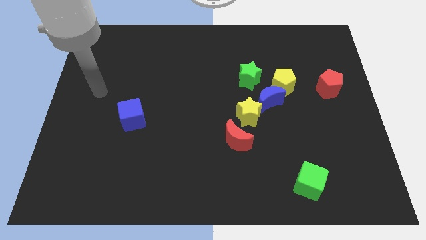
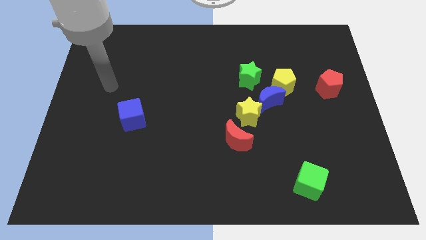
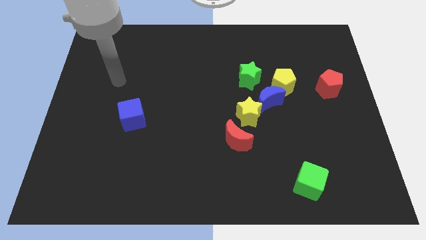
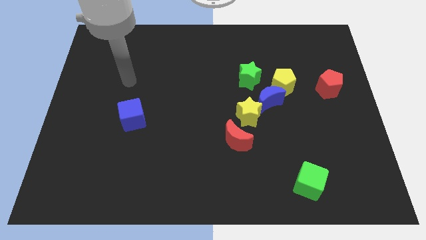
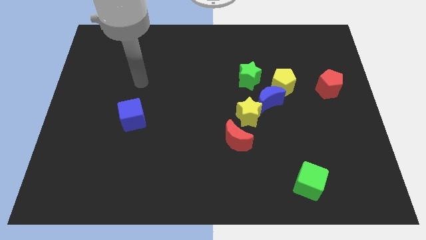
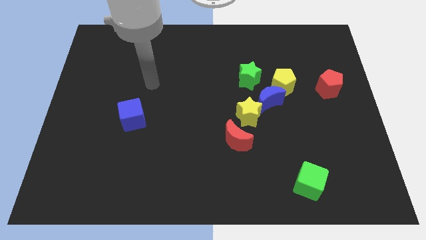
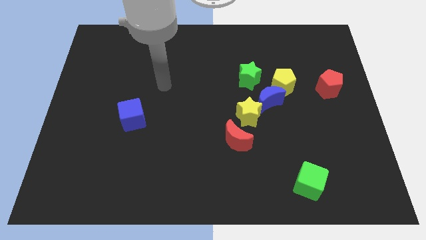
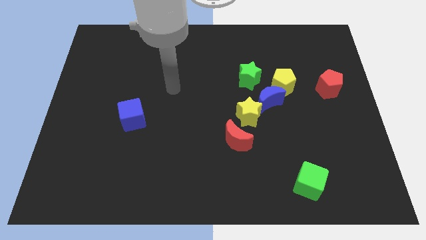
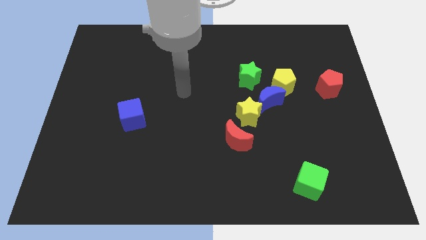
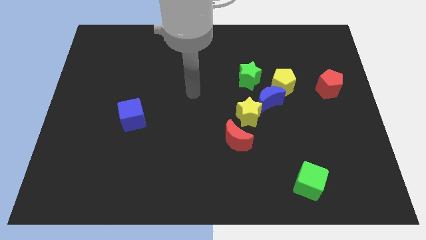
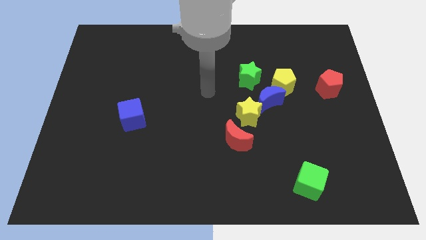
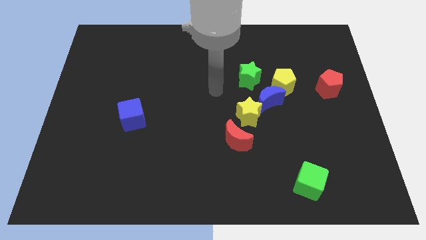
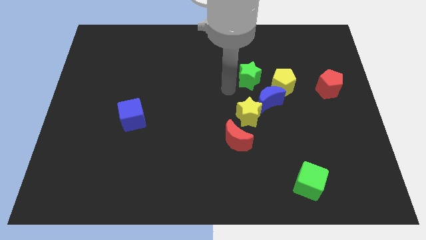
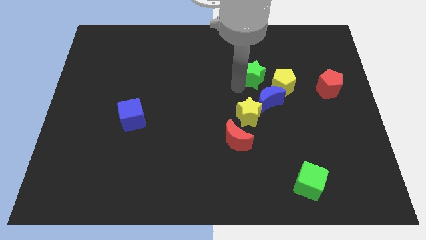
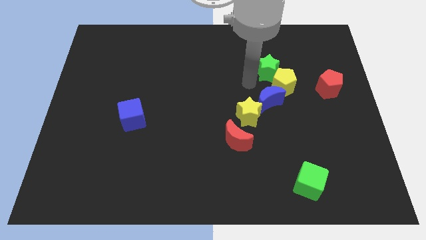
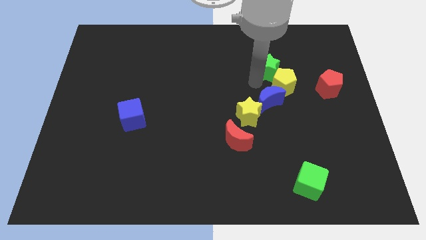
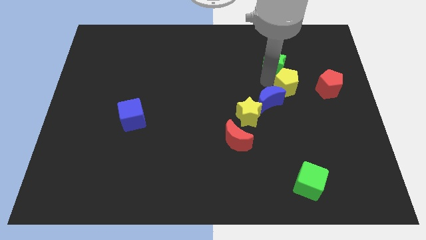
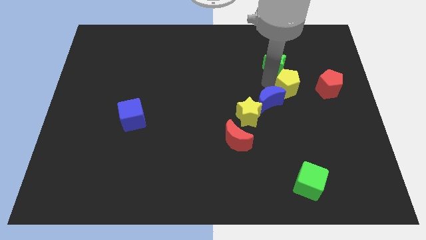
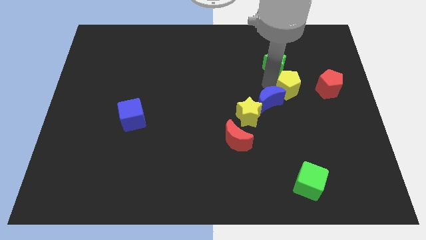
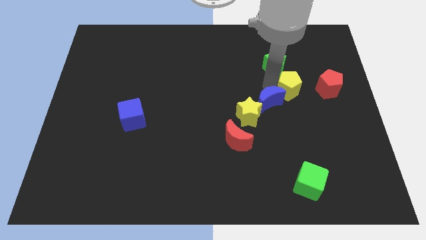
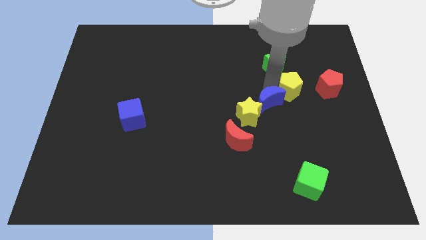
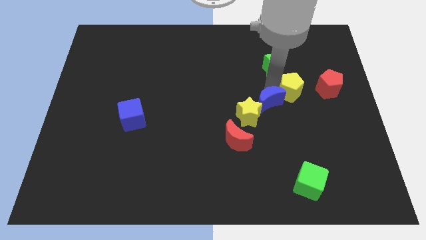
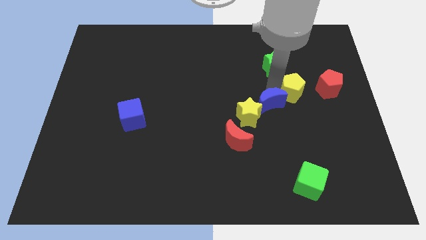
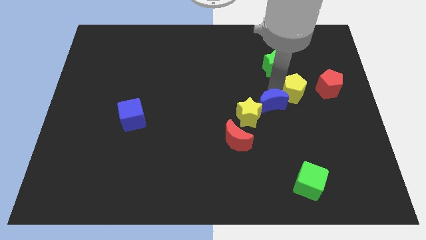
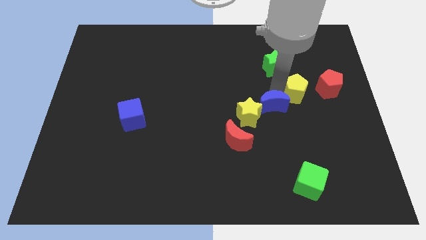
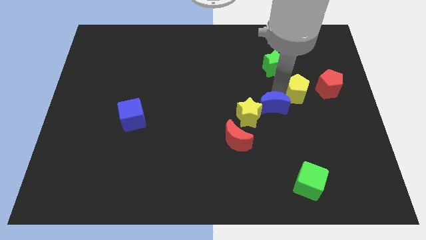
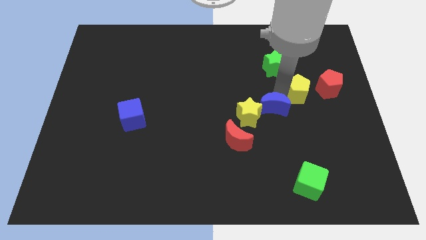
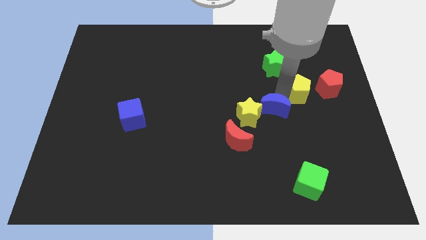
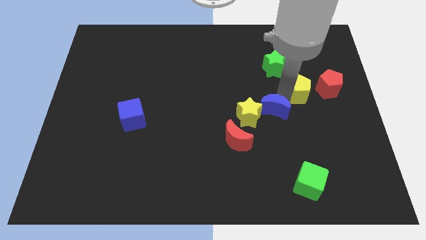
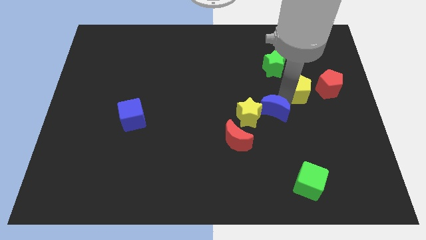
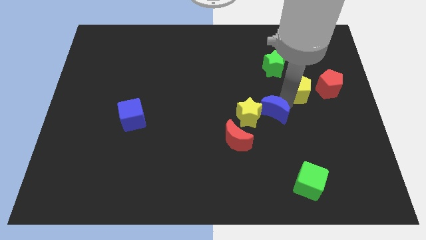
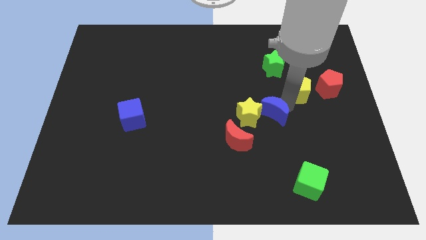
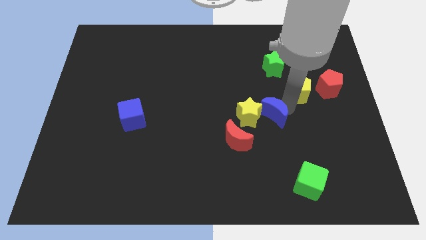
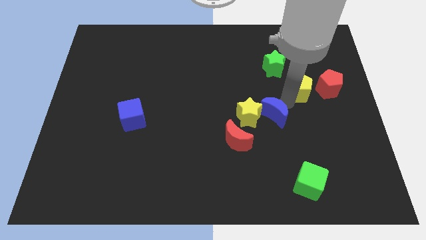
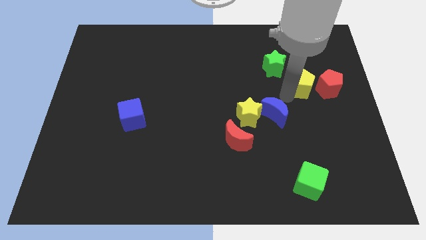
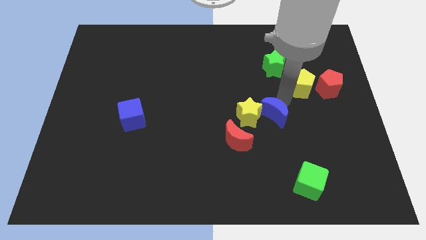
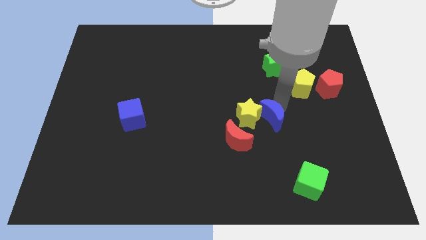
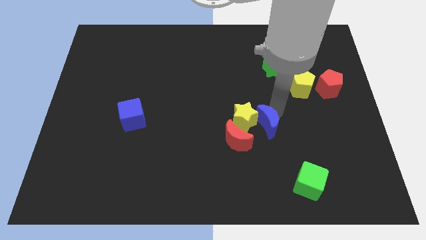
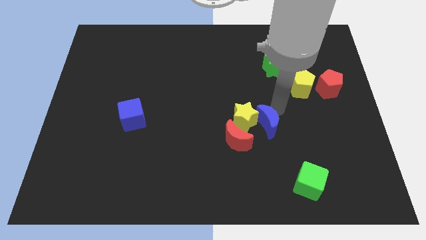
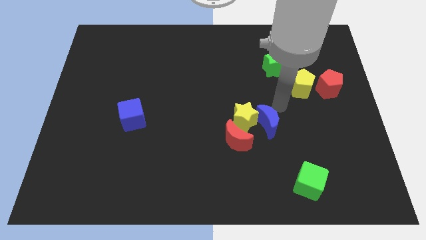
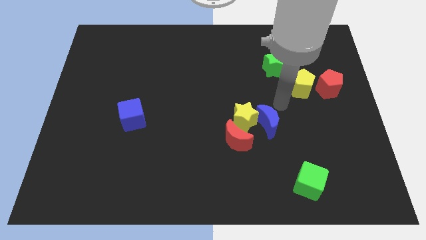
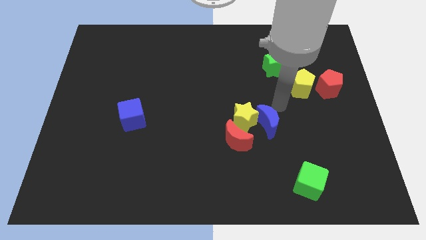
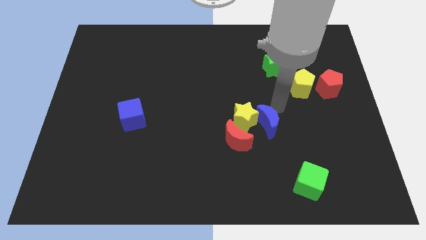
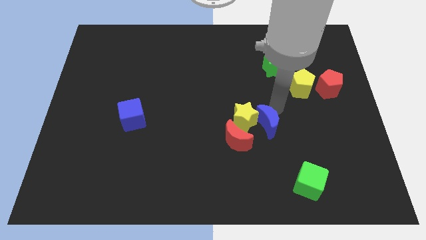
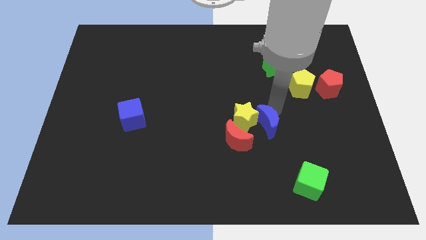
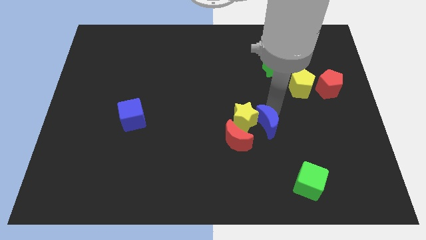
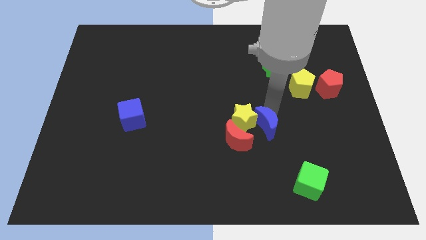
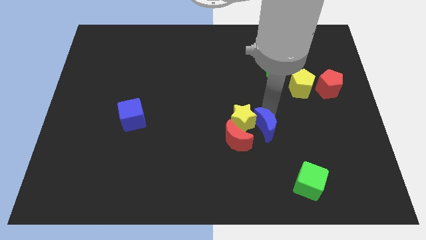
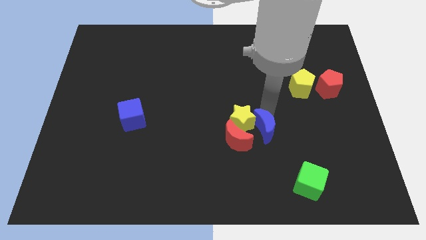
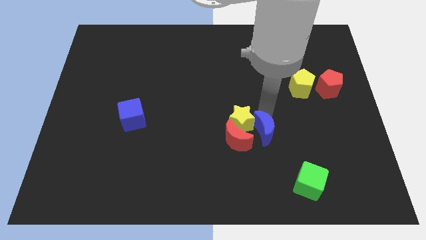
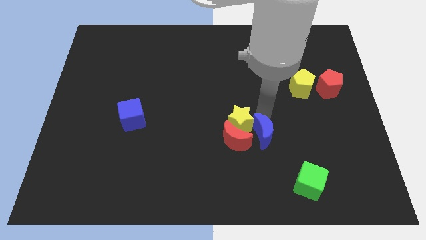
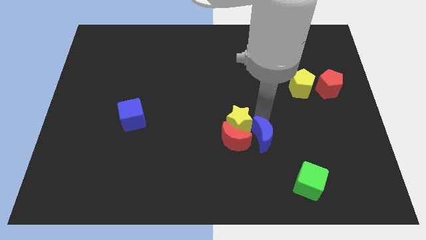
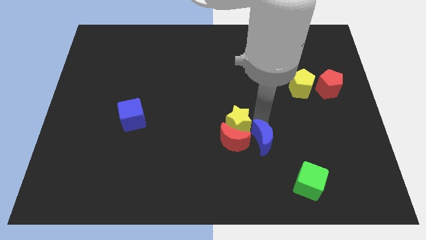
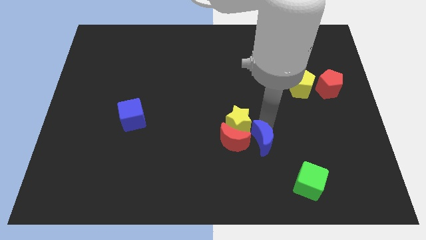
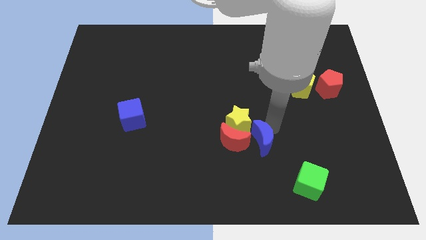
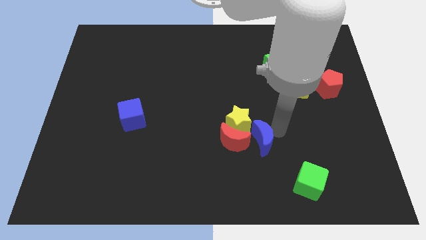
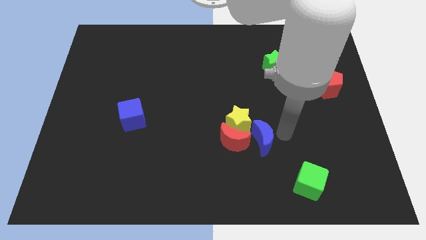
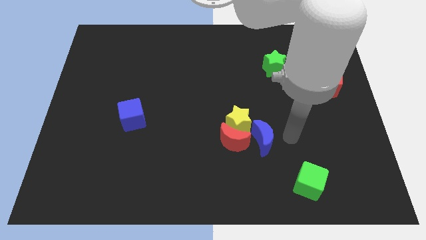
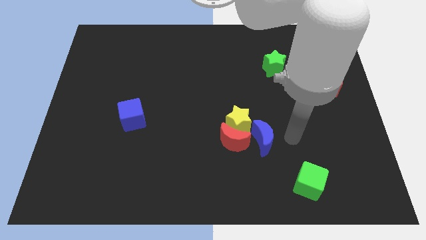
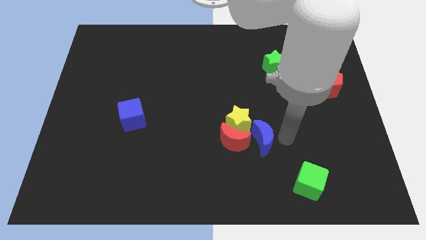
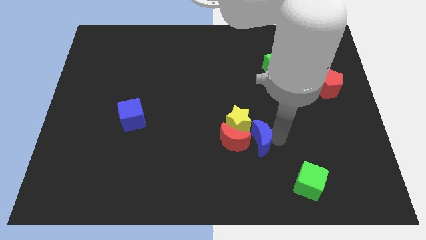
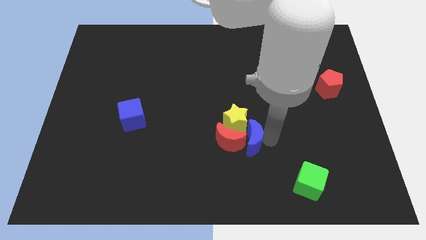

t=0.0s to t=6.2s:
push the blue moon next to the red moon

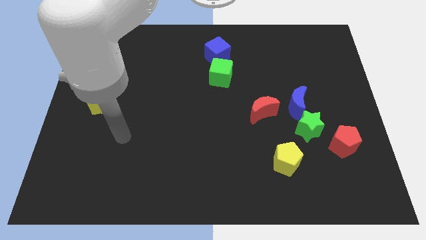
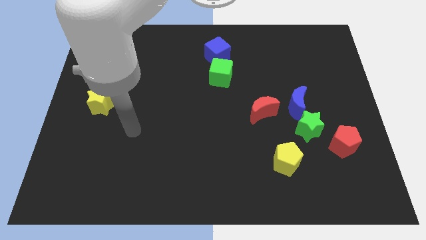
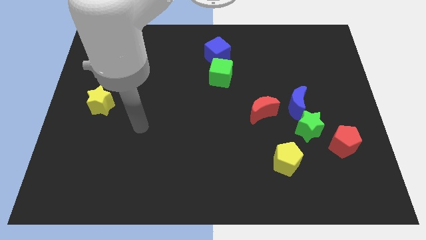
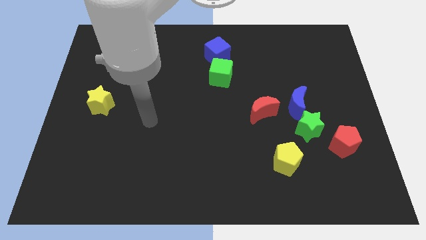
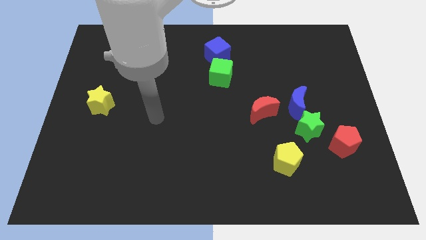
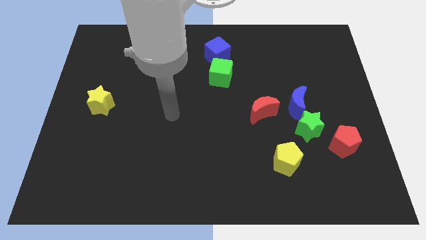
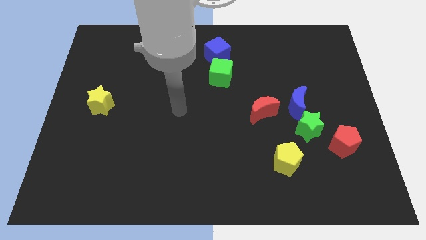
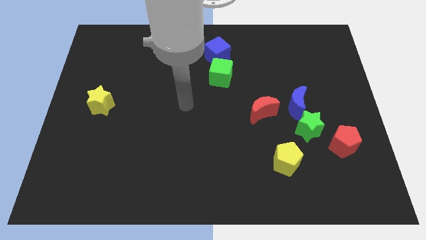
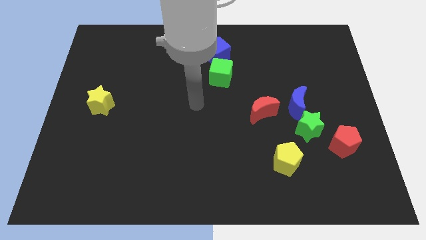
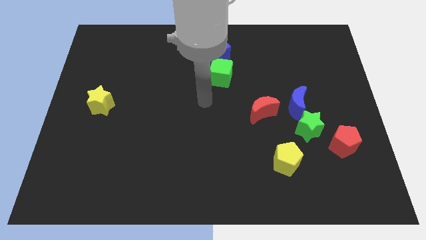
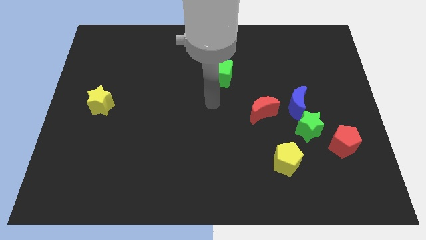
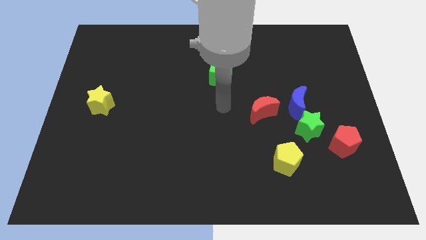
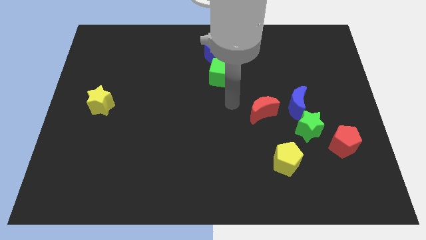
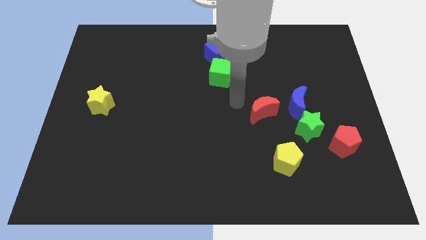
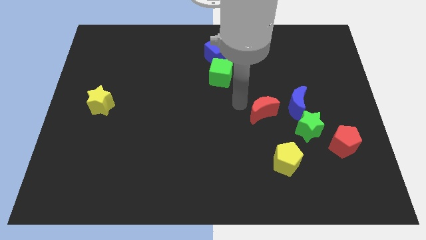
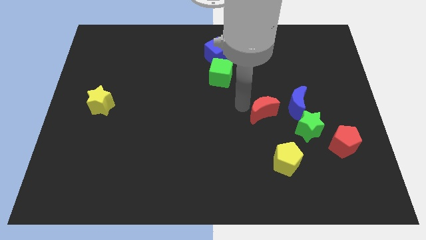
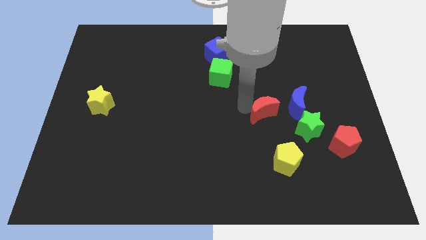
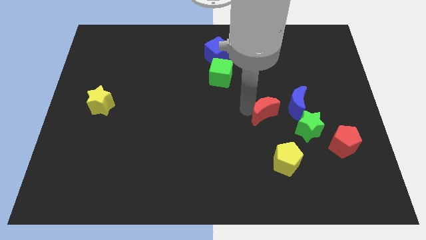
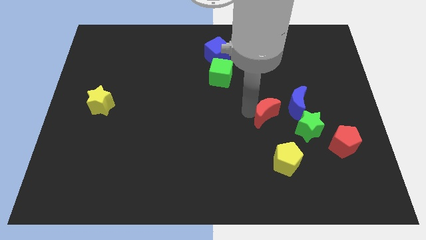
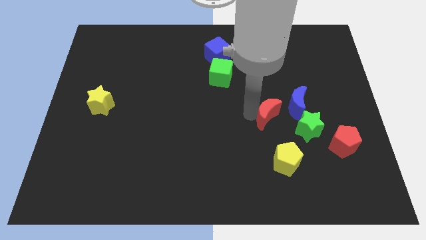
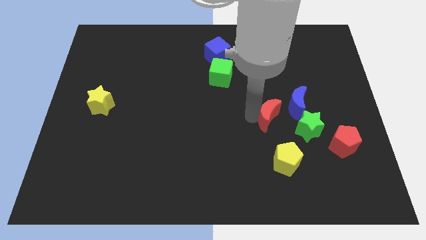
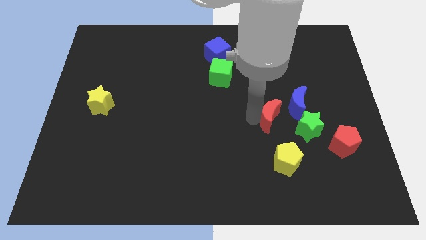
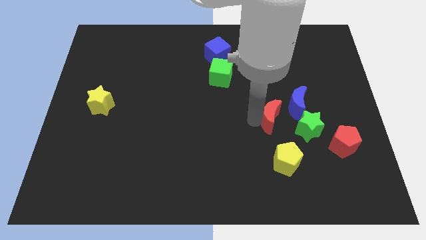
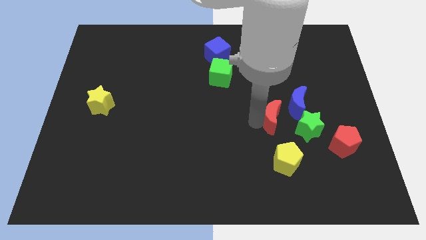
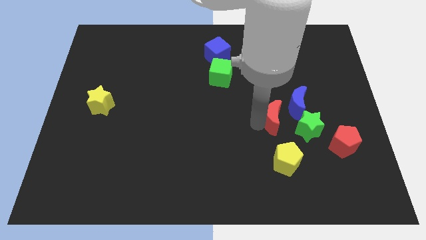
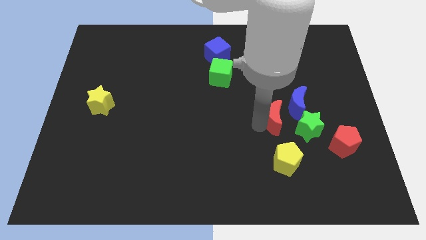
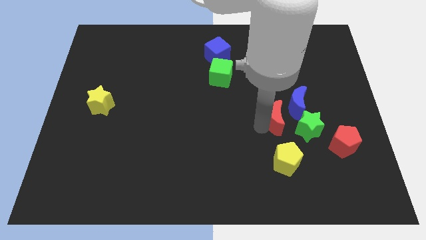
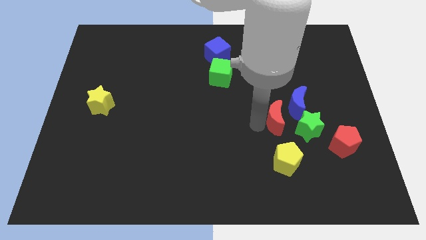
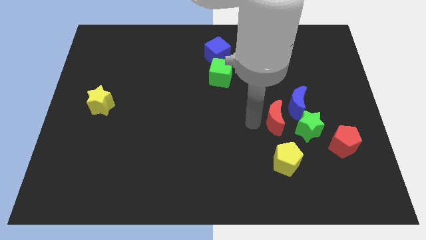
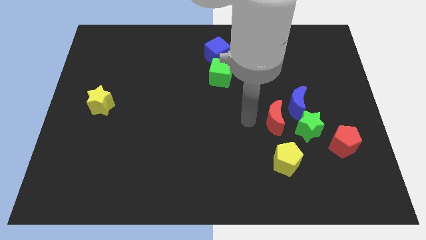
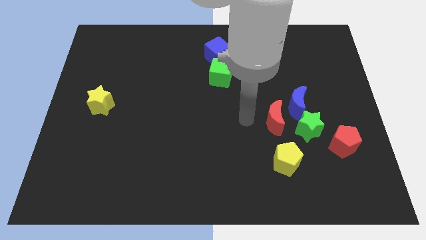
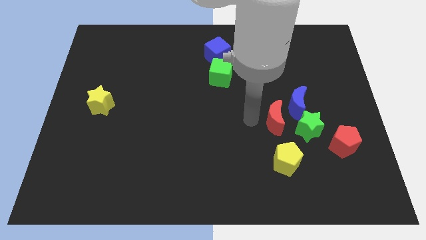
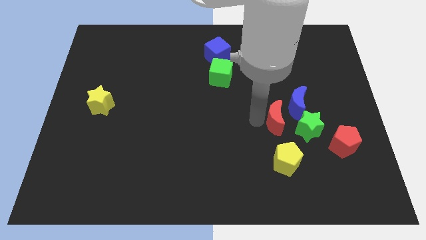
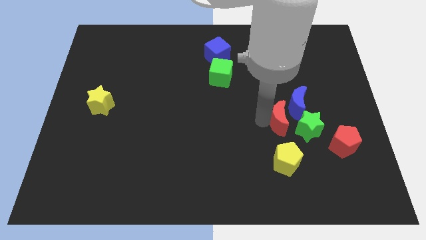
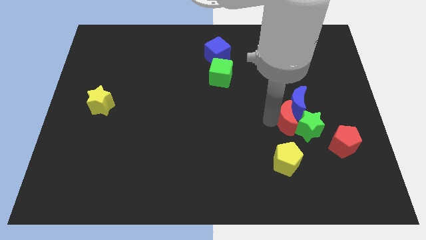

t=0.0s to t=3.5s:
put the red moon next to the green star
